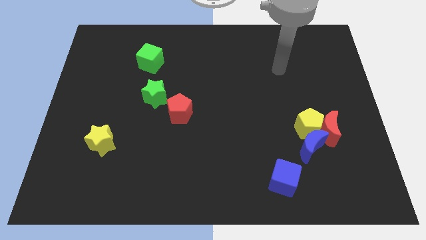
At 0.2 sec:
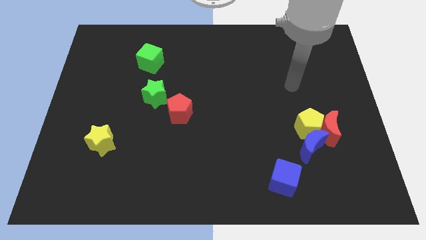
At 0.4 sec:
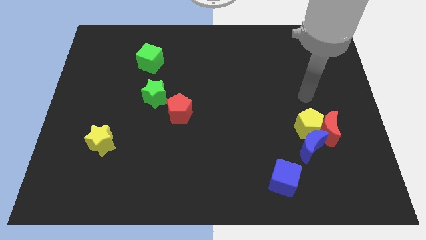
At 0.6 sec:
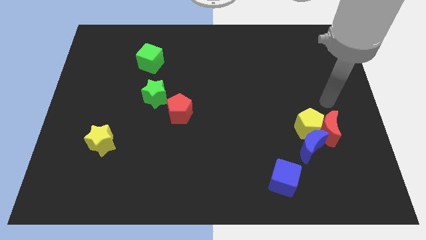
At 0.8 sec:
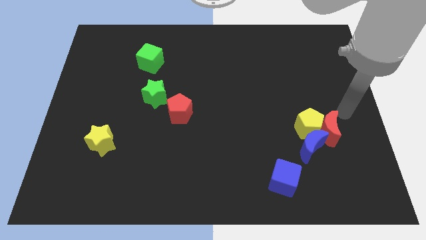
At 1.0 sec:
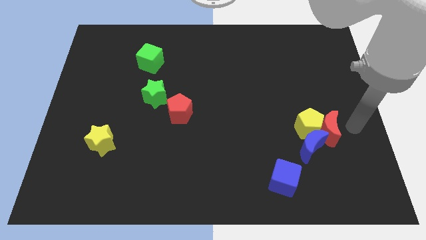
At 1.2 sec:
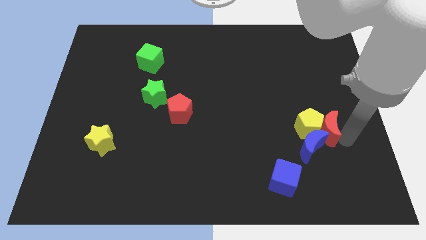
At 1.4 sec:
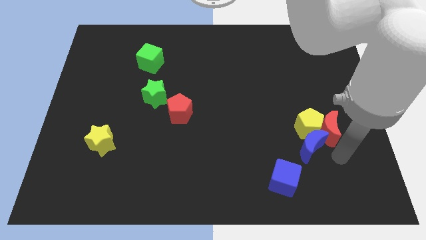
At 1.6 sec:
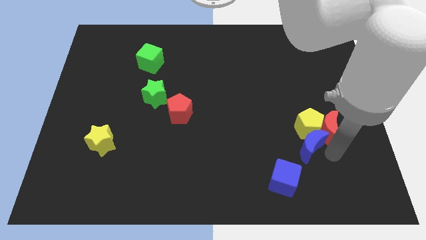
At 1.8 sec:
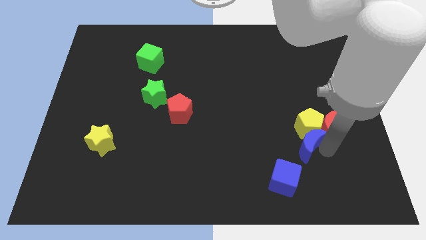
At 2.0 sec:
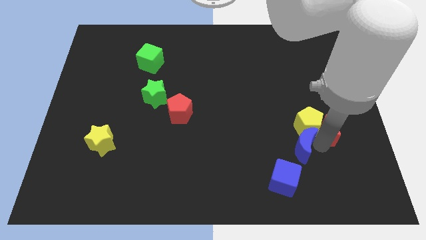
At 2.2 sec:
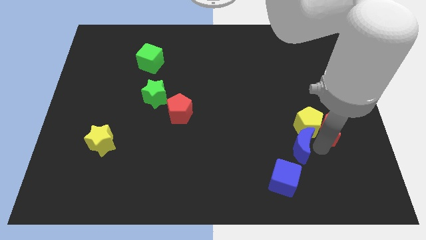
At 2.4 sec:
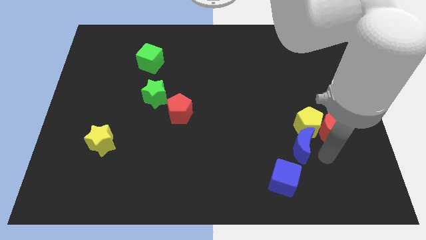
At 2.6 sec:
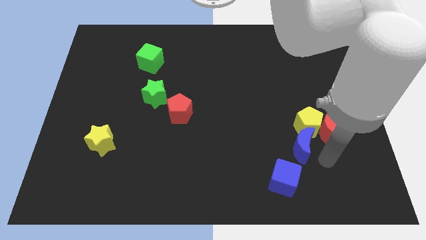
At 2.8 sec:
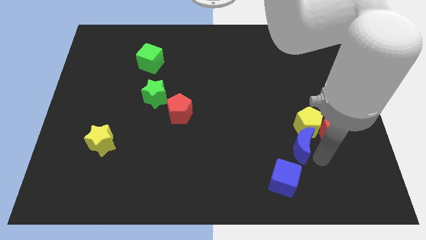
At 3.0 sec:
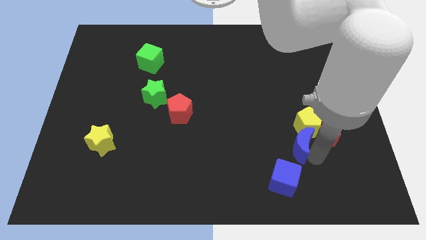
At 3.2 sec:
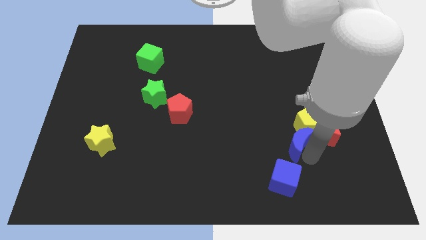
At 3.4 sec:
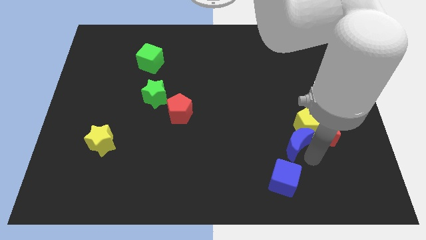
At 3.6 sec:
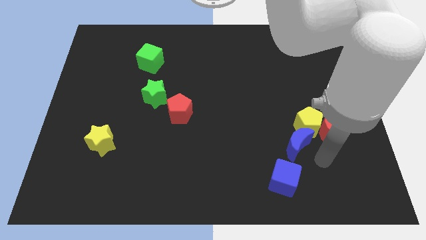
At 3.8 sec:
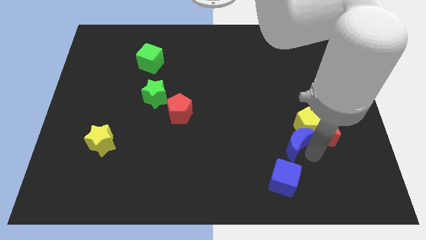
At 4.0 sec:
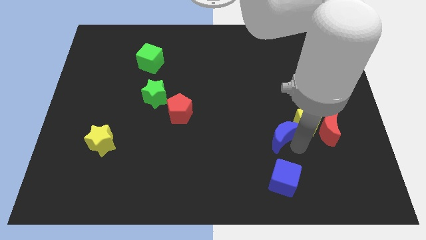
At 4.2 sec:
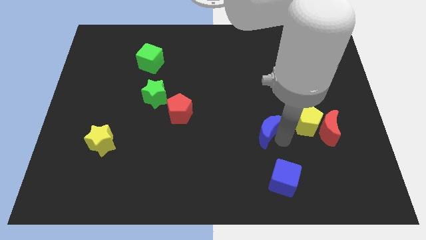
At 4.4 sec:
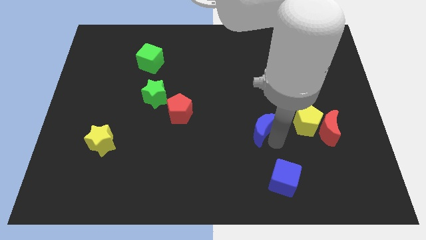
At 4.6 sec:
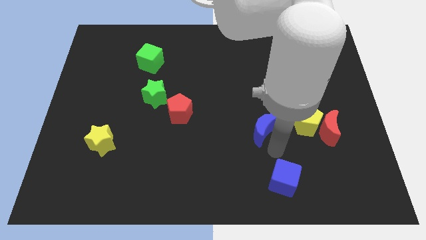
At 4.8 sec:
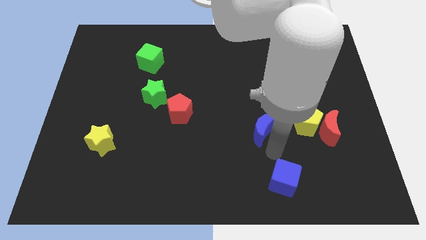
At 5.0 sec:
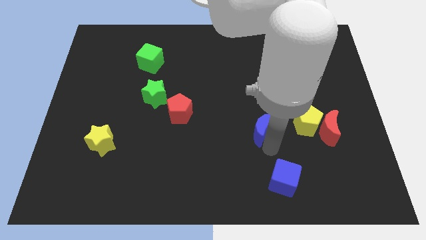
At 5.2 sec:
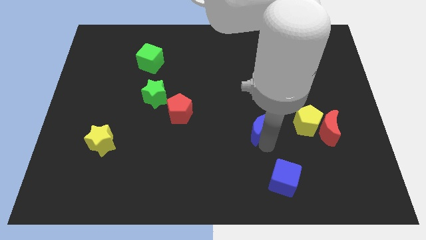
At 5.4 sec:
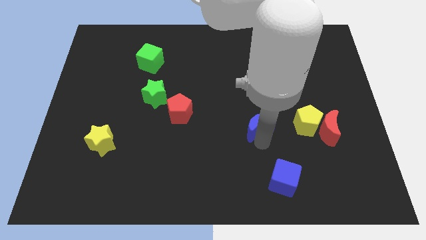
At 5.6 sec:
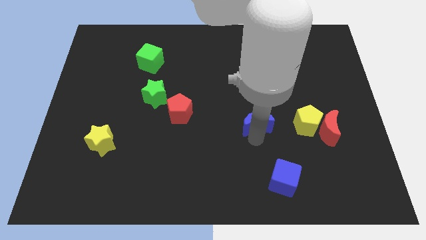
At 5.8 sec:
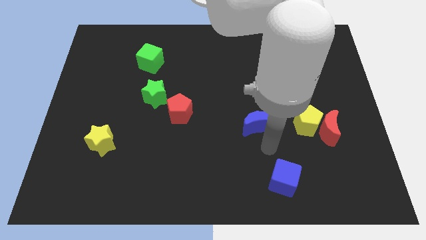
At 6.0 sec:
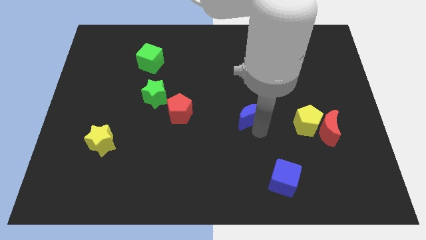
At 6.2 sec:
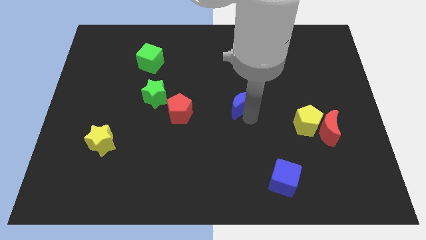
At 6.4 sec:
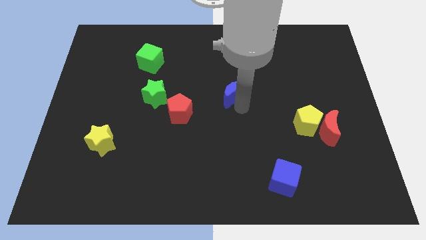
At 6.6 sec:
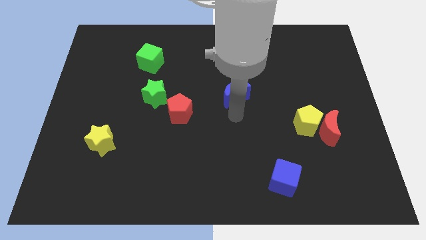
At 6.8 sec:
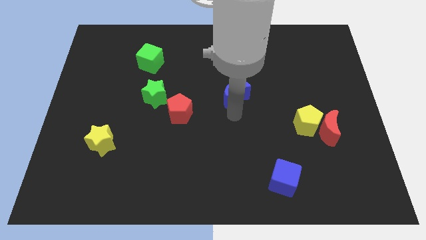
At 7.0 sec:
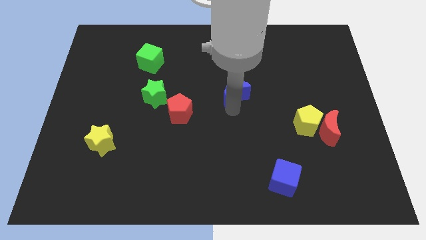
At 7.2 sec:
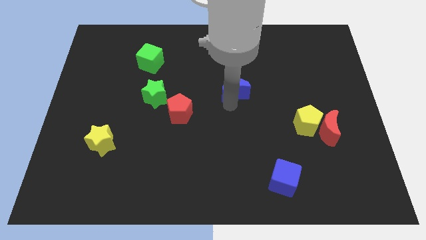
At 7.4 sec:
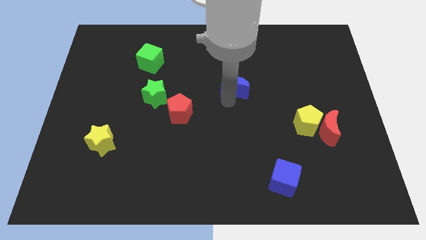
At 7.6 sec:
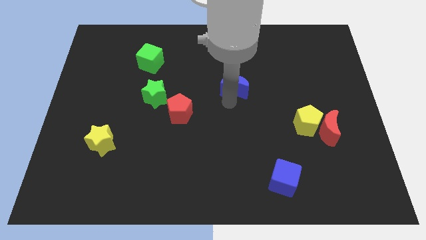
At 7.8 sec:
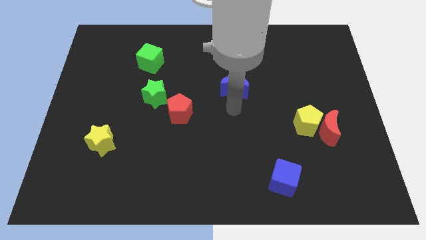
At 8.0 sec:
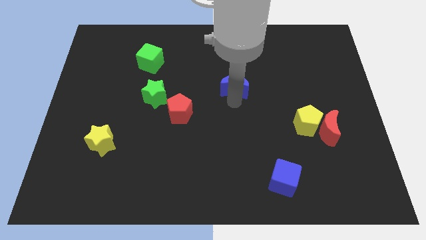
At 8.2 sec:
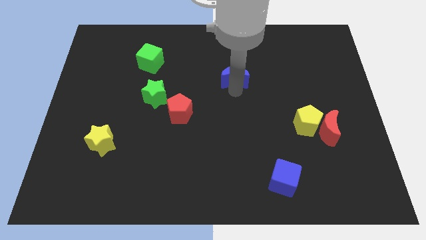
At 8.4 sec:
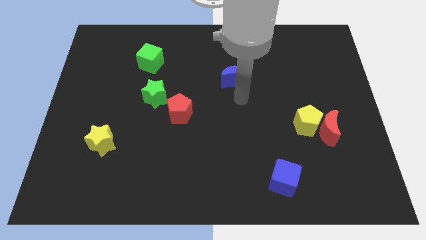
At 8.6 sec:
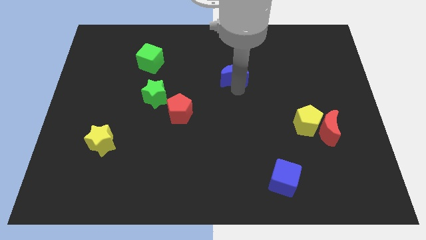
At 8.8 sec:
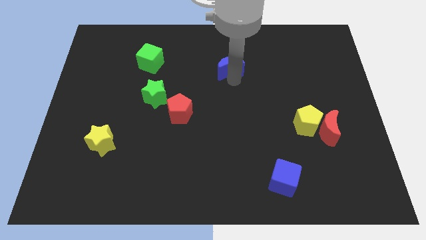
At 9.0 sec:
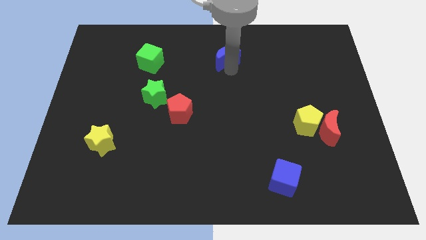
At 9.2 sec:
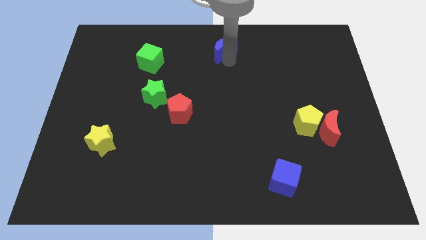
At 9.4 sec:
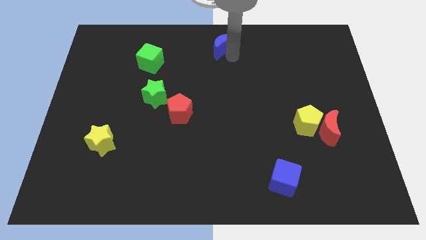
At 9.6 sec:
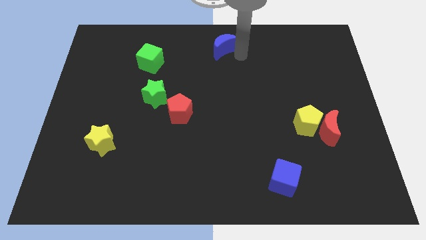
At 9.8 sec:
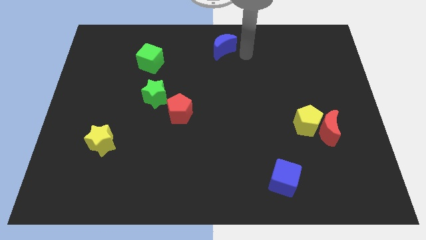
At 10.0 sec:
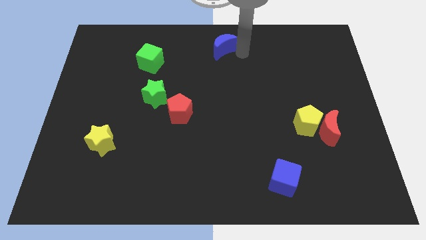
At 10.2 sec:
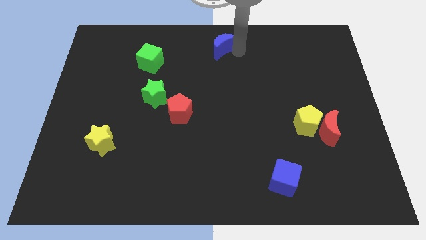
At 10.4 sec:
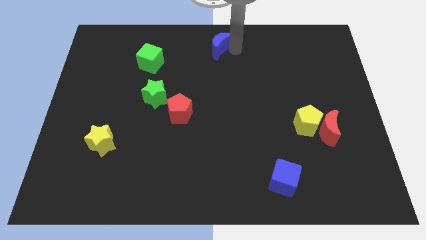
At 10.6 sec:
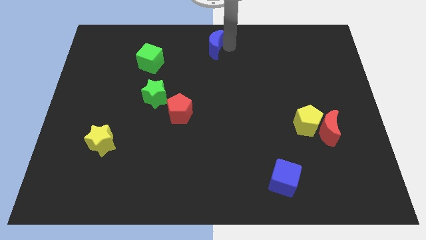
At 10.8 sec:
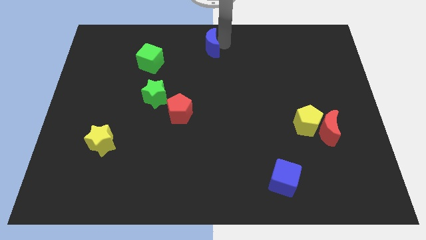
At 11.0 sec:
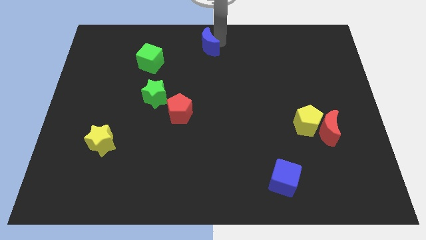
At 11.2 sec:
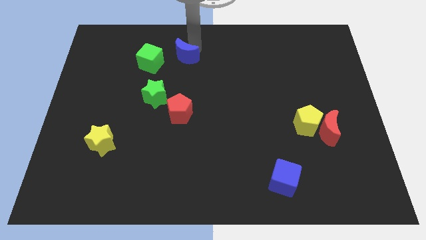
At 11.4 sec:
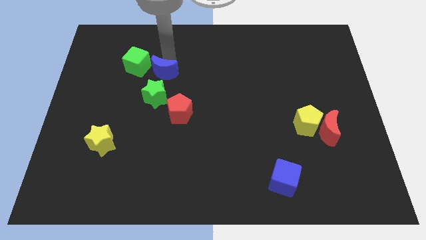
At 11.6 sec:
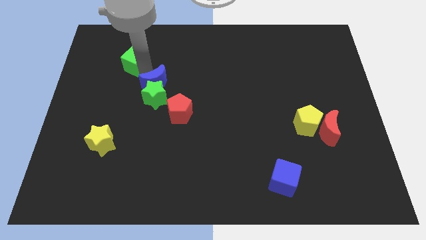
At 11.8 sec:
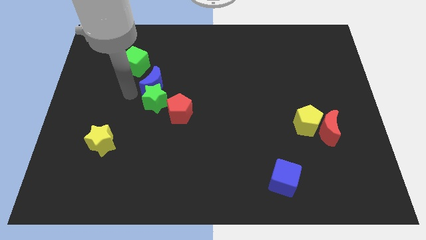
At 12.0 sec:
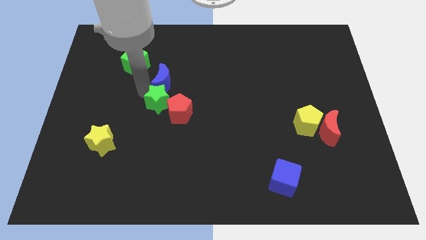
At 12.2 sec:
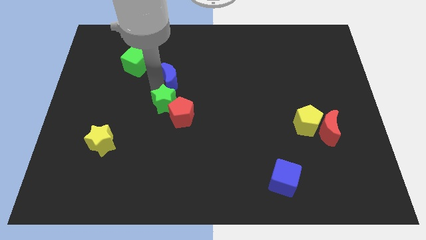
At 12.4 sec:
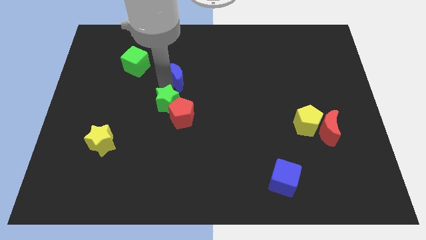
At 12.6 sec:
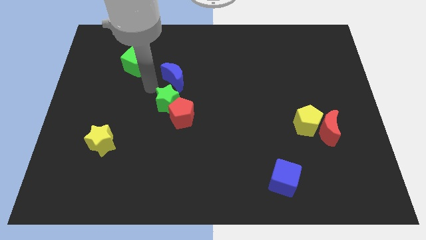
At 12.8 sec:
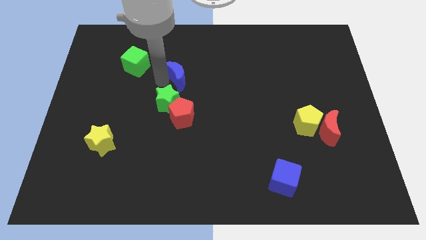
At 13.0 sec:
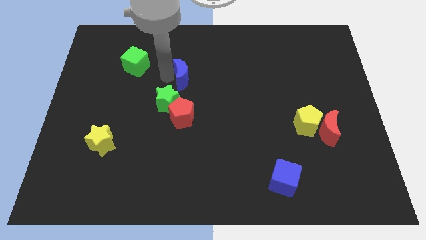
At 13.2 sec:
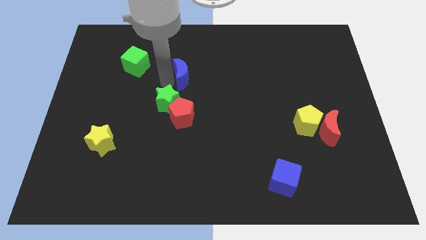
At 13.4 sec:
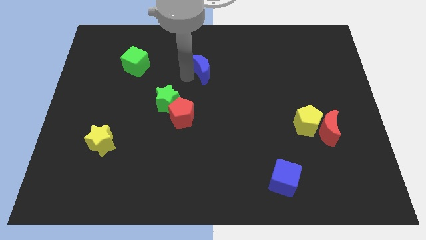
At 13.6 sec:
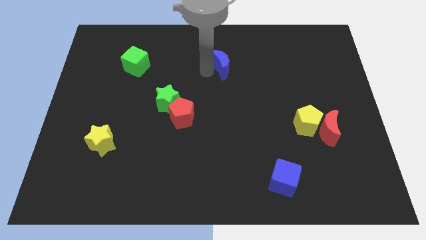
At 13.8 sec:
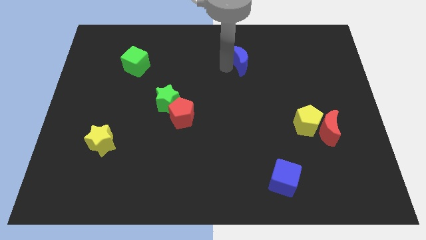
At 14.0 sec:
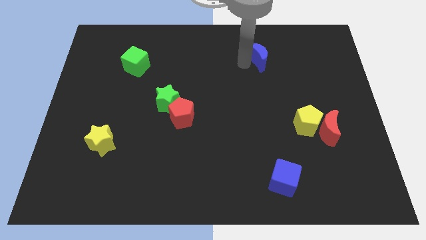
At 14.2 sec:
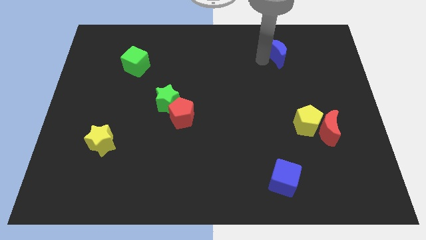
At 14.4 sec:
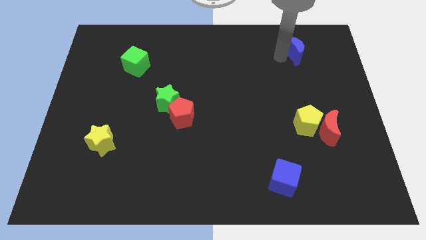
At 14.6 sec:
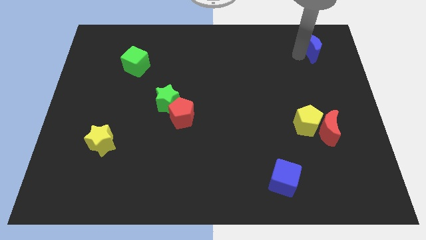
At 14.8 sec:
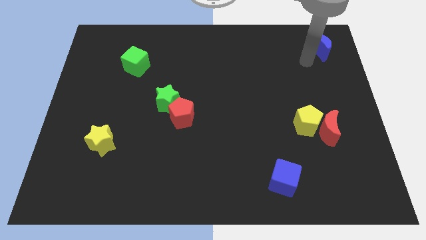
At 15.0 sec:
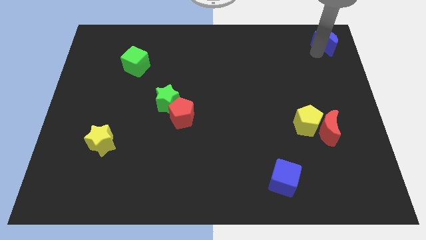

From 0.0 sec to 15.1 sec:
put the blue moon to the upper right corner
